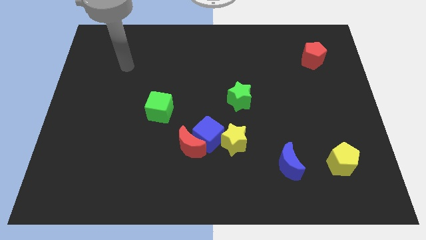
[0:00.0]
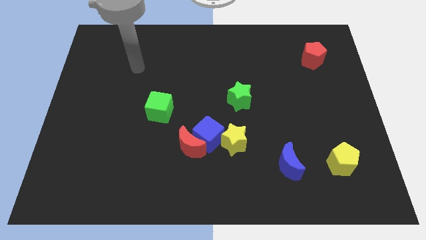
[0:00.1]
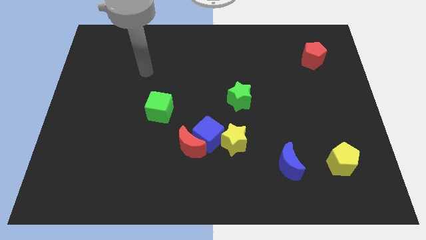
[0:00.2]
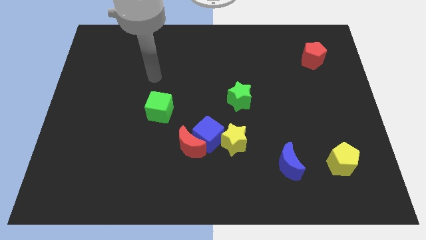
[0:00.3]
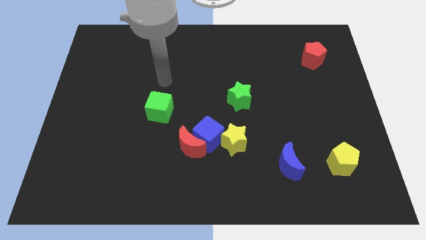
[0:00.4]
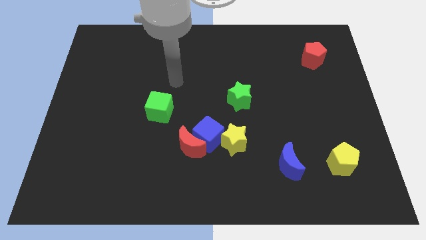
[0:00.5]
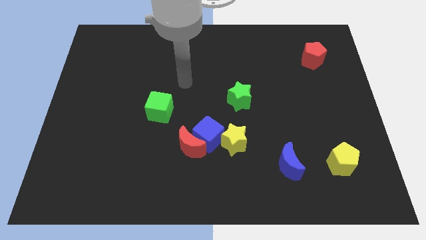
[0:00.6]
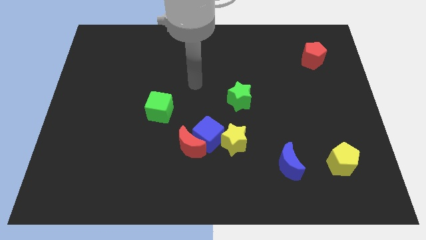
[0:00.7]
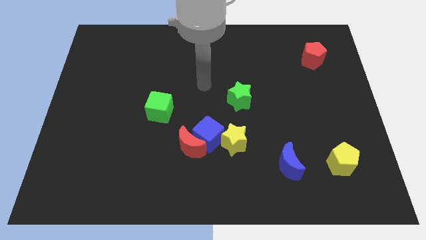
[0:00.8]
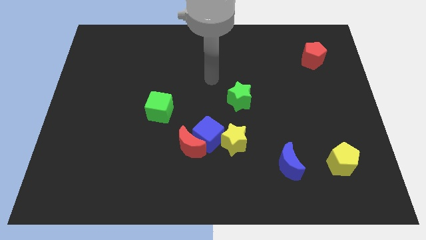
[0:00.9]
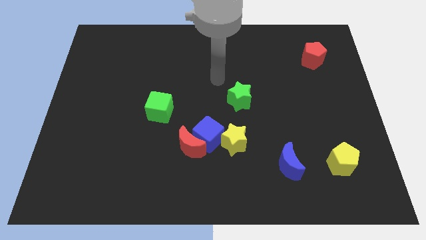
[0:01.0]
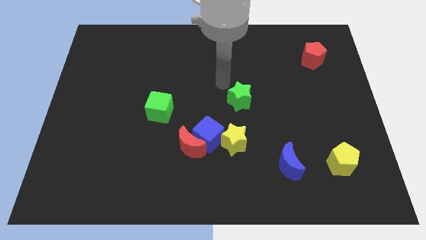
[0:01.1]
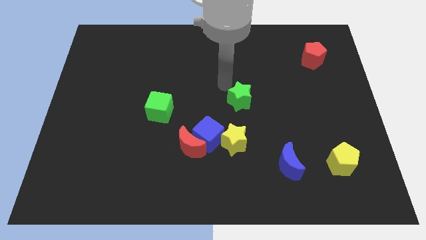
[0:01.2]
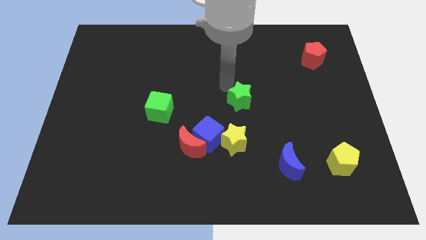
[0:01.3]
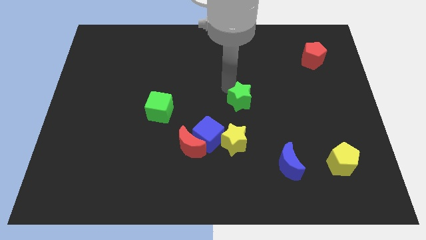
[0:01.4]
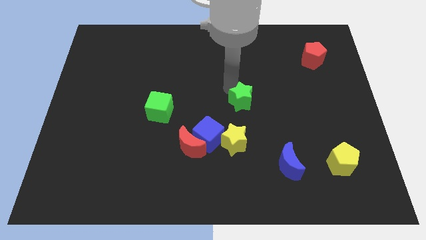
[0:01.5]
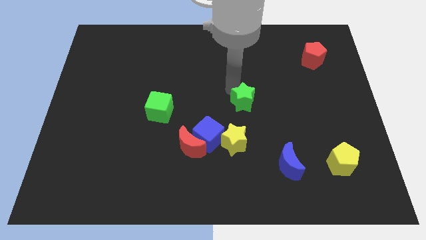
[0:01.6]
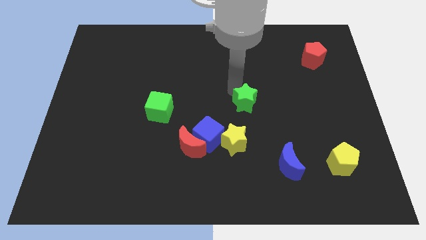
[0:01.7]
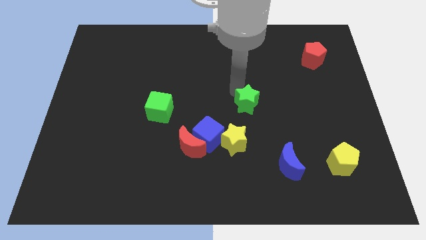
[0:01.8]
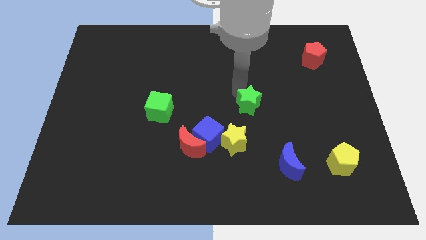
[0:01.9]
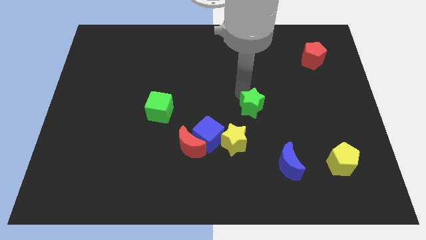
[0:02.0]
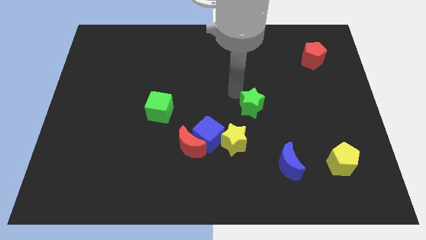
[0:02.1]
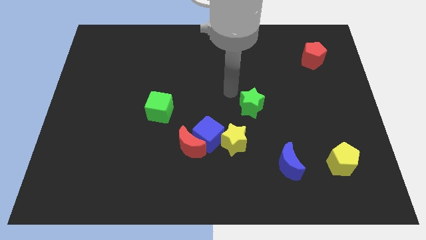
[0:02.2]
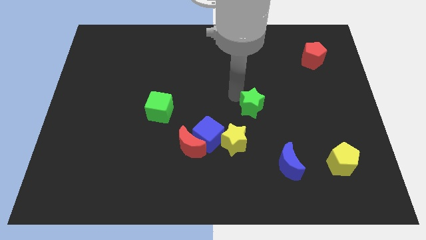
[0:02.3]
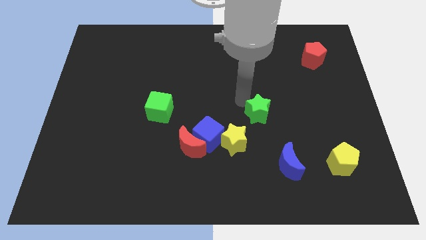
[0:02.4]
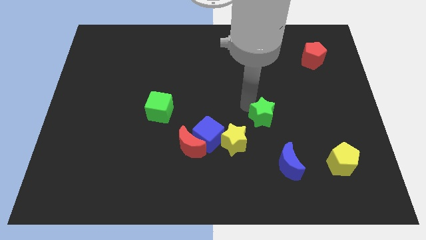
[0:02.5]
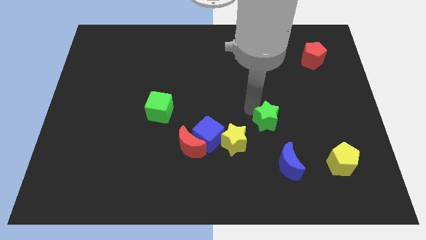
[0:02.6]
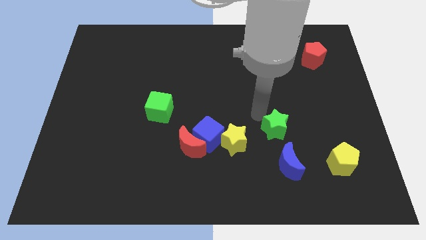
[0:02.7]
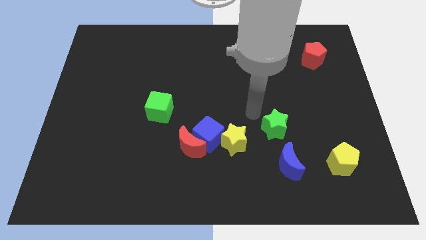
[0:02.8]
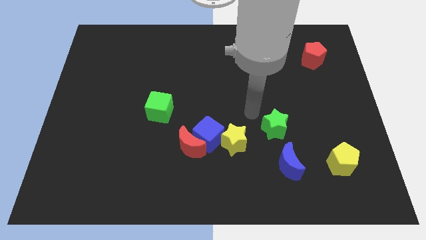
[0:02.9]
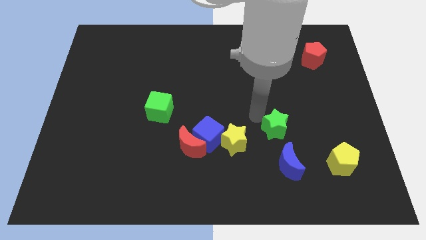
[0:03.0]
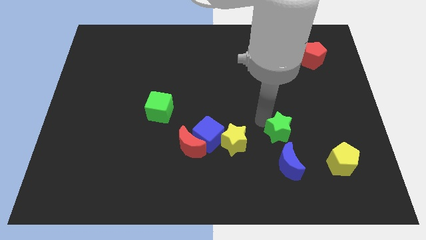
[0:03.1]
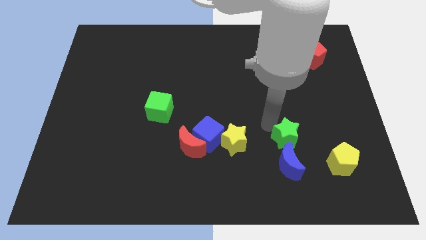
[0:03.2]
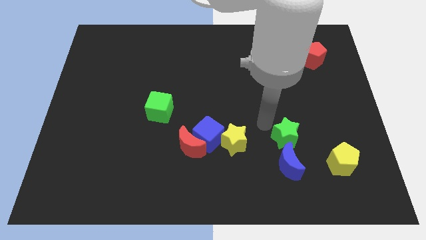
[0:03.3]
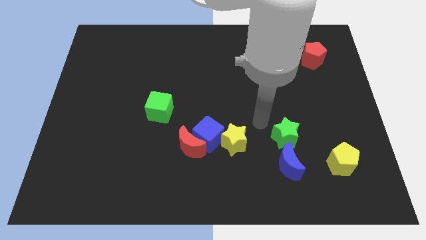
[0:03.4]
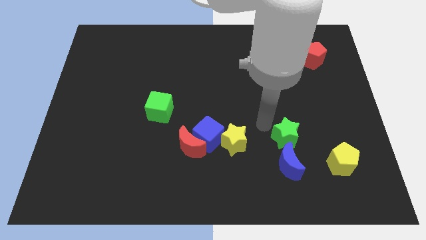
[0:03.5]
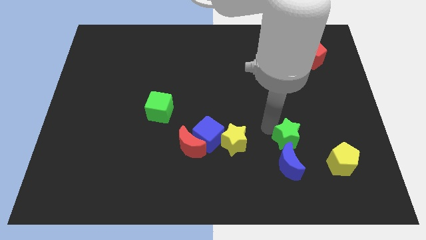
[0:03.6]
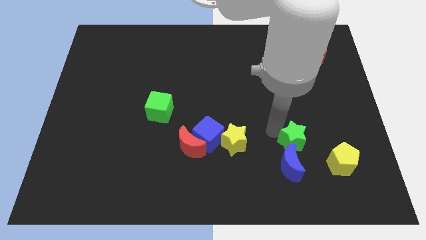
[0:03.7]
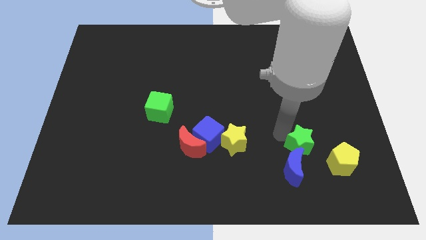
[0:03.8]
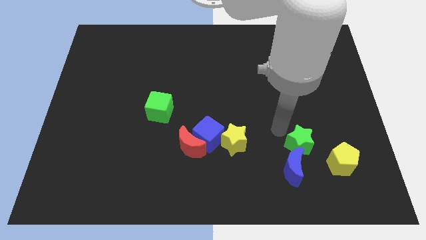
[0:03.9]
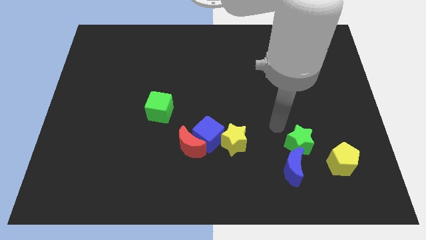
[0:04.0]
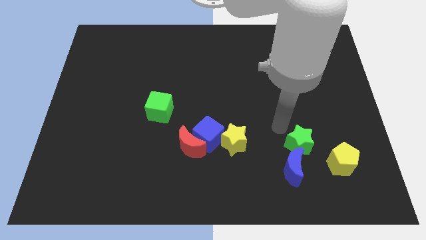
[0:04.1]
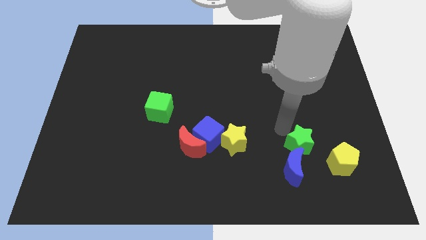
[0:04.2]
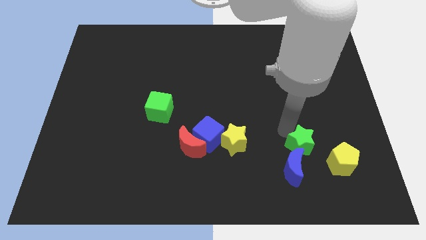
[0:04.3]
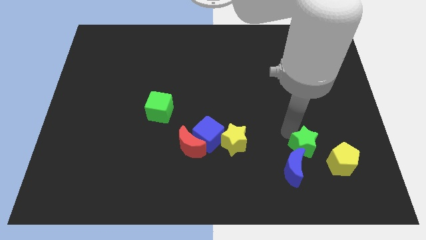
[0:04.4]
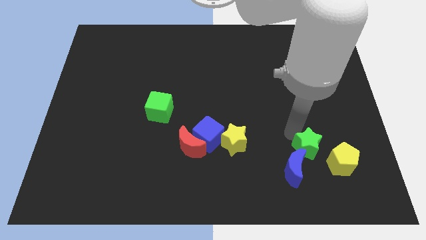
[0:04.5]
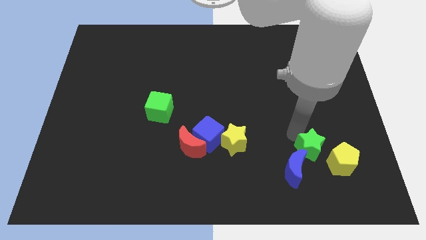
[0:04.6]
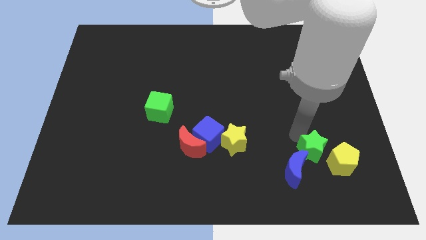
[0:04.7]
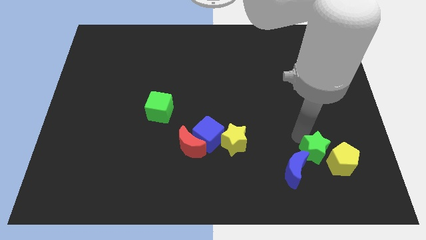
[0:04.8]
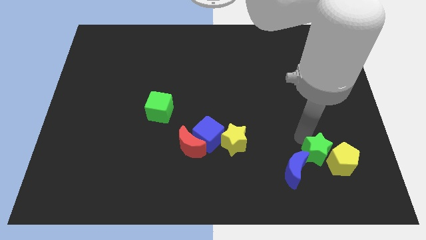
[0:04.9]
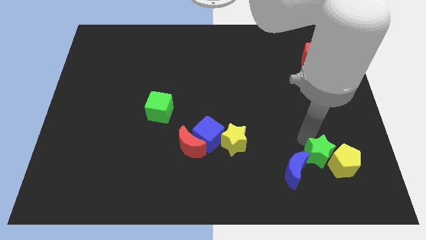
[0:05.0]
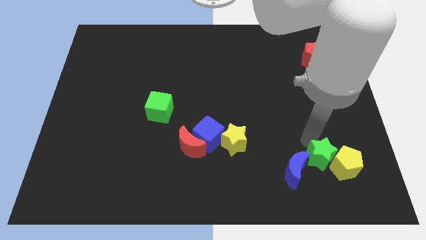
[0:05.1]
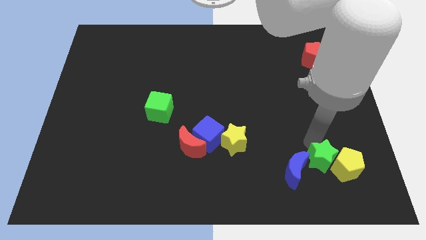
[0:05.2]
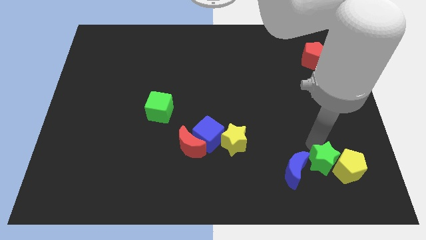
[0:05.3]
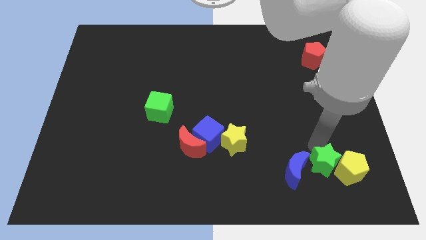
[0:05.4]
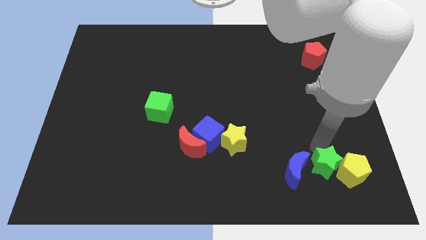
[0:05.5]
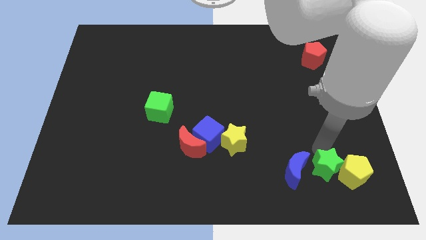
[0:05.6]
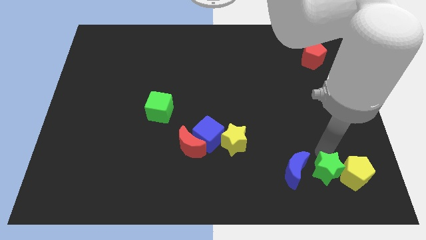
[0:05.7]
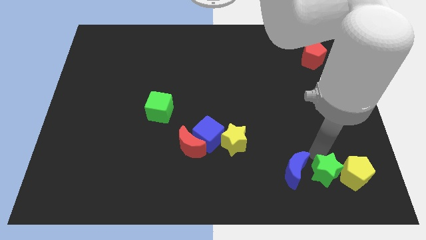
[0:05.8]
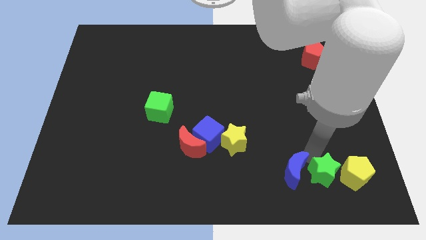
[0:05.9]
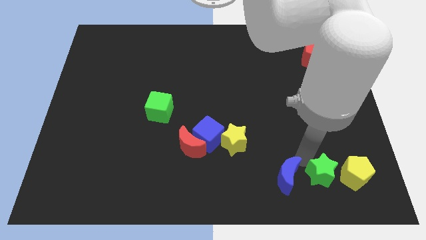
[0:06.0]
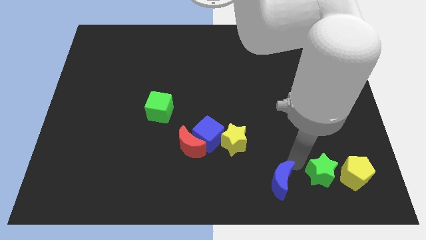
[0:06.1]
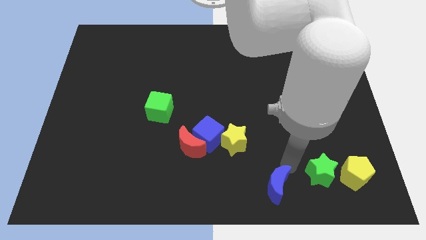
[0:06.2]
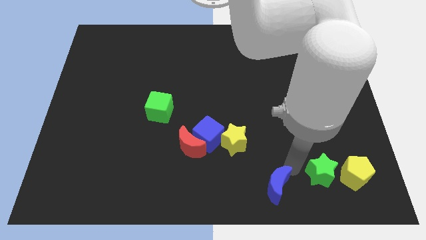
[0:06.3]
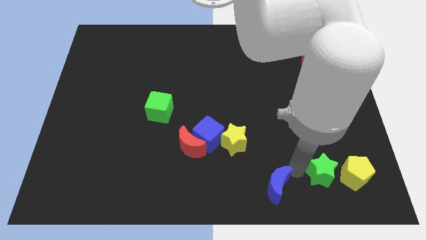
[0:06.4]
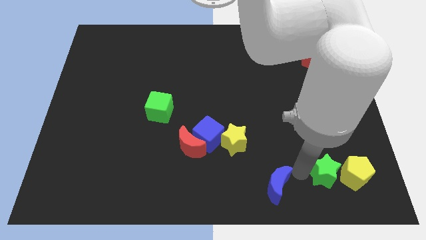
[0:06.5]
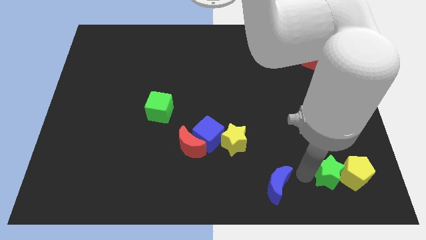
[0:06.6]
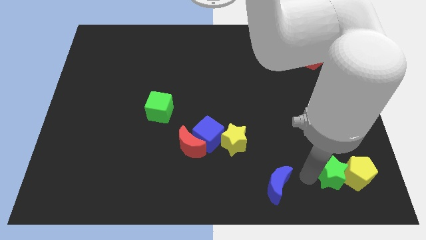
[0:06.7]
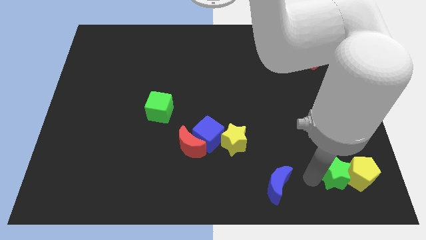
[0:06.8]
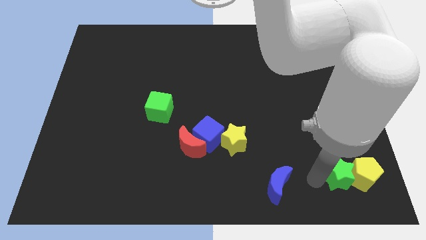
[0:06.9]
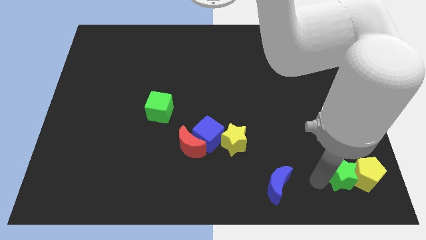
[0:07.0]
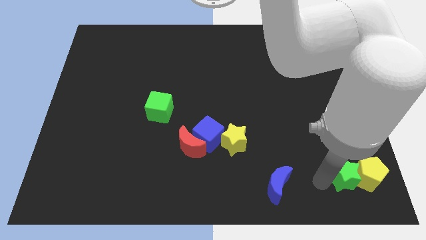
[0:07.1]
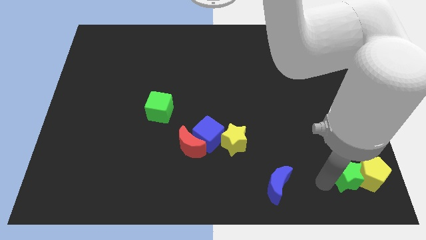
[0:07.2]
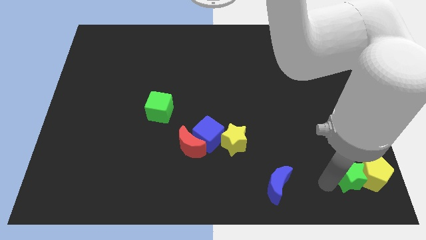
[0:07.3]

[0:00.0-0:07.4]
slide the green star to the lower right corner
